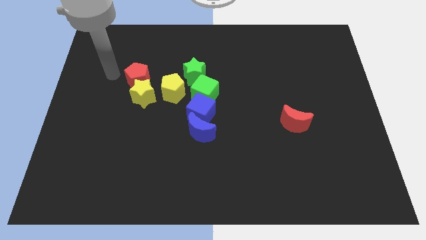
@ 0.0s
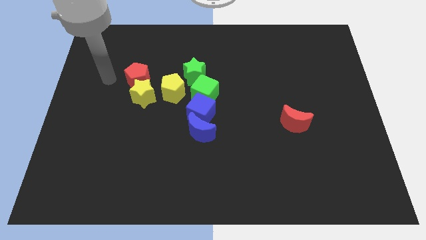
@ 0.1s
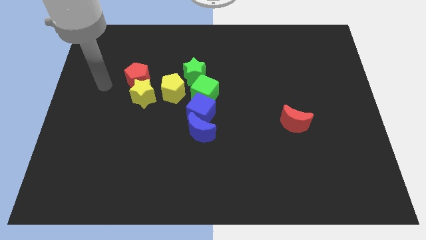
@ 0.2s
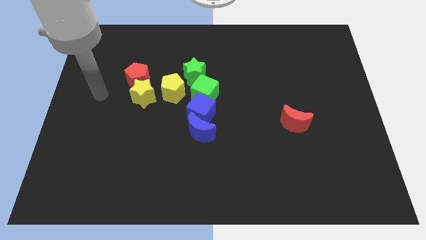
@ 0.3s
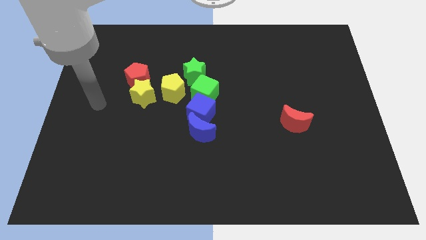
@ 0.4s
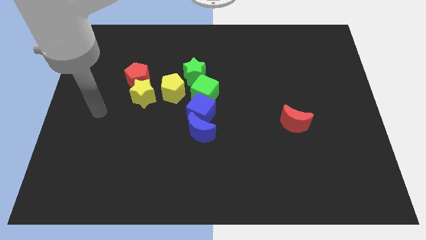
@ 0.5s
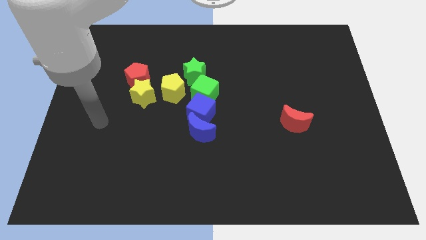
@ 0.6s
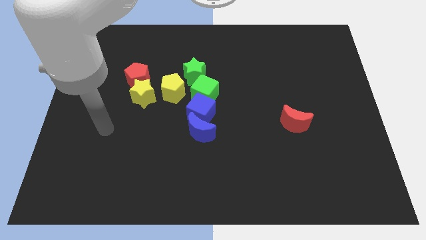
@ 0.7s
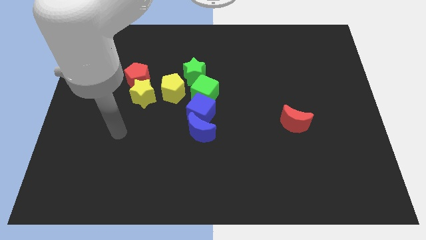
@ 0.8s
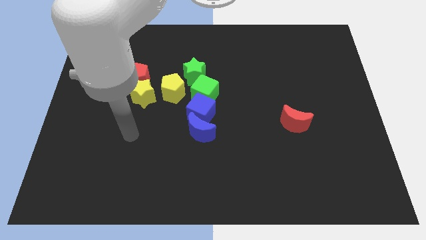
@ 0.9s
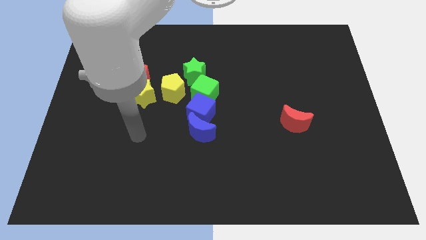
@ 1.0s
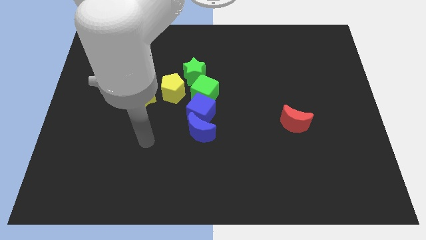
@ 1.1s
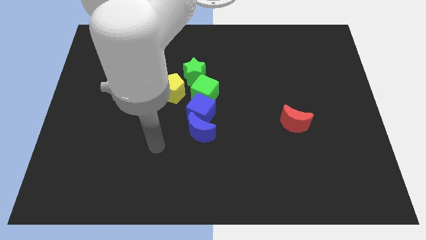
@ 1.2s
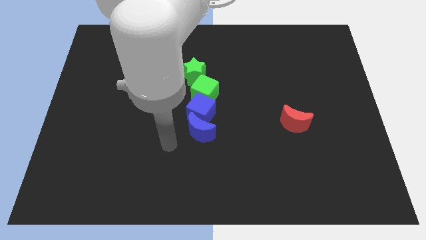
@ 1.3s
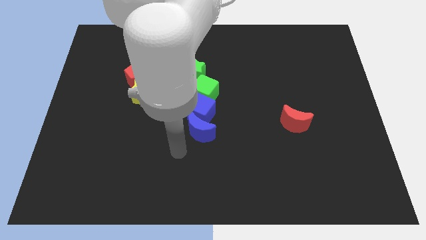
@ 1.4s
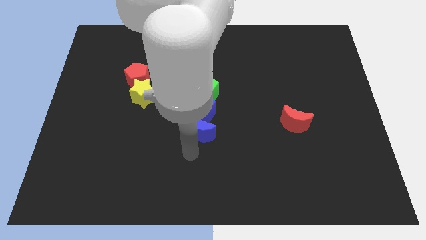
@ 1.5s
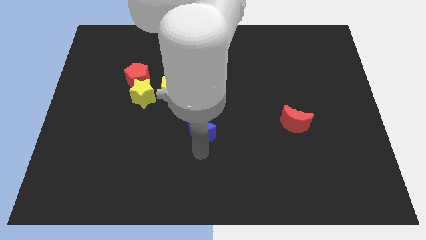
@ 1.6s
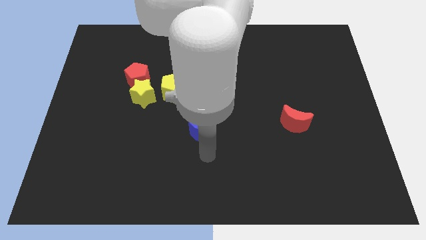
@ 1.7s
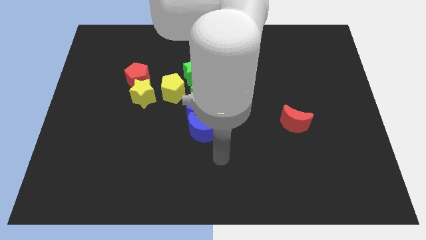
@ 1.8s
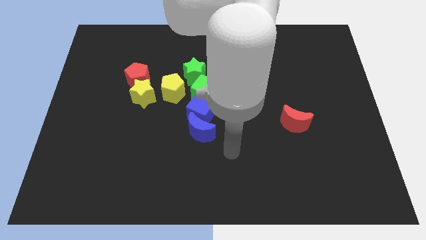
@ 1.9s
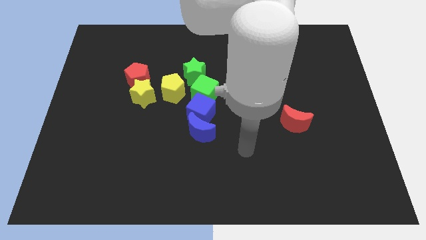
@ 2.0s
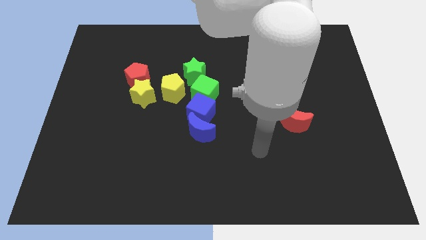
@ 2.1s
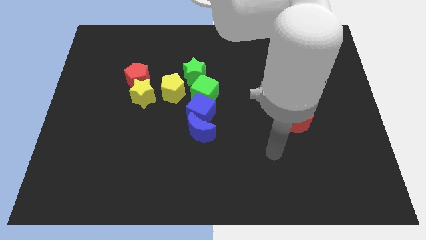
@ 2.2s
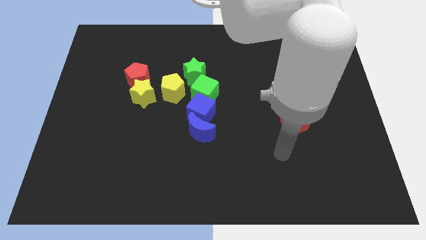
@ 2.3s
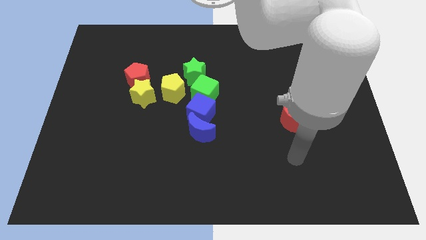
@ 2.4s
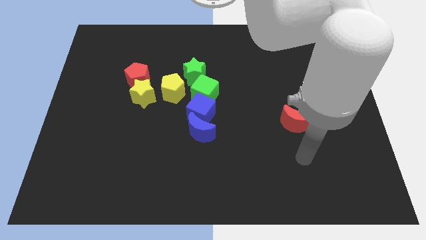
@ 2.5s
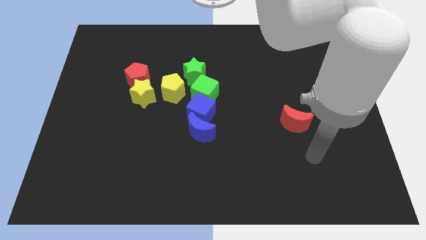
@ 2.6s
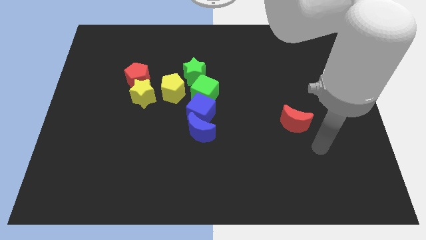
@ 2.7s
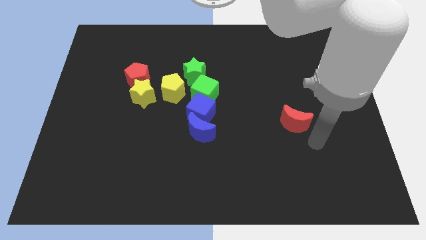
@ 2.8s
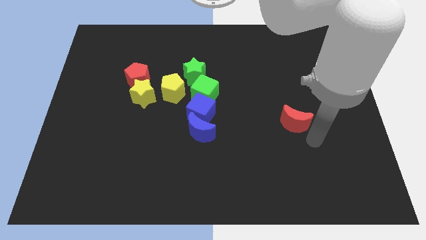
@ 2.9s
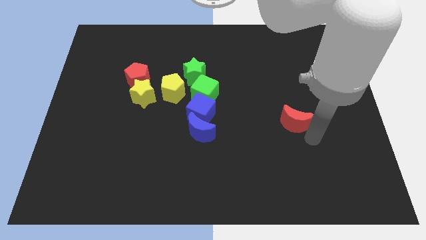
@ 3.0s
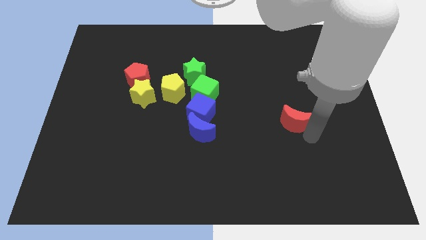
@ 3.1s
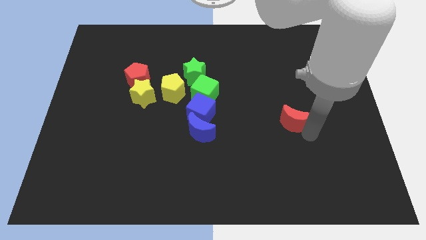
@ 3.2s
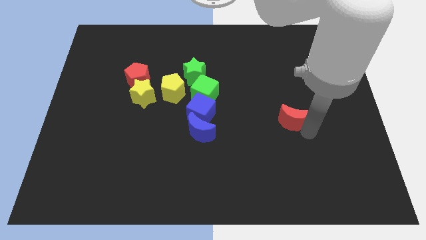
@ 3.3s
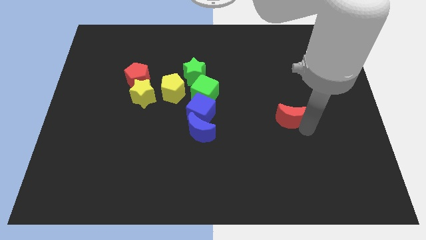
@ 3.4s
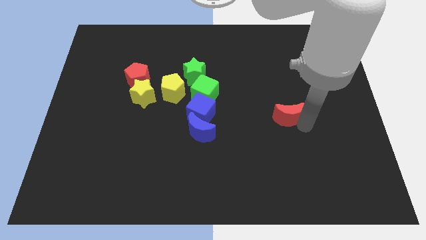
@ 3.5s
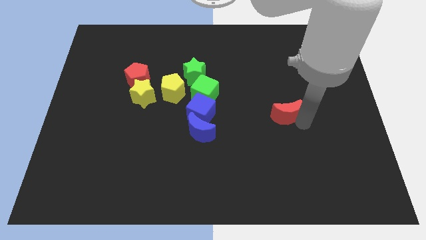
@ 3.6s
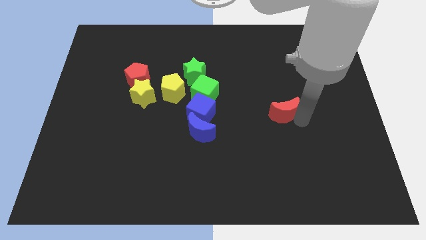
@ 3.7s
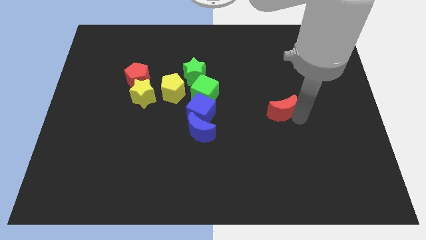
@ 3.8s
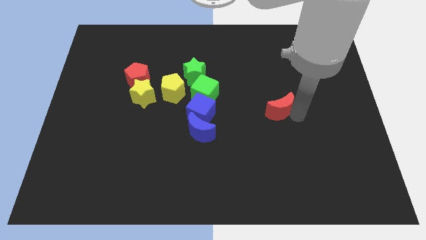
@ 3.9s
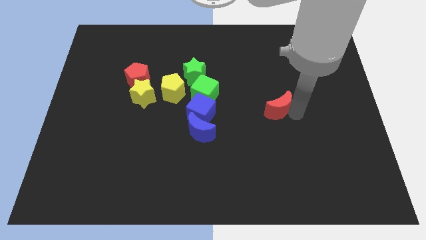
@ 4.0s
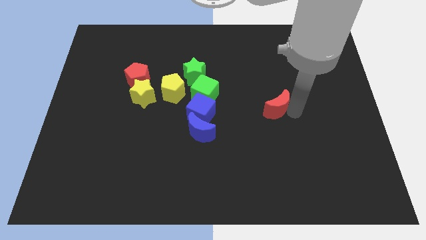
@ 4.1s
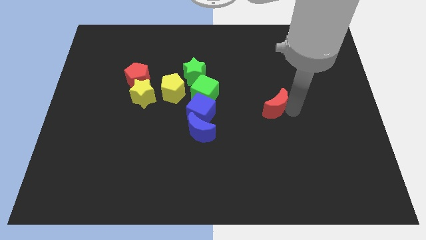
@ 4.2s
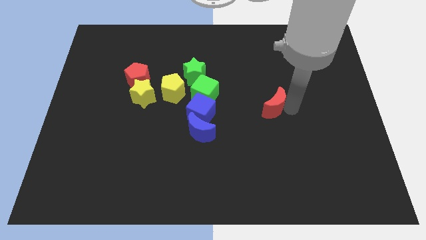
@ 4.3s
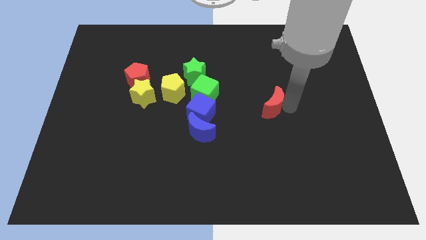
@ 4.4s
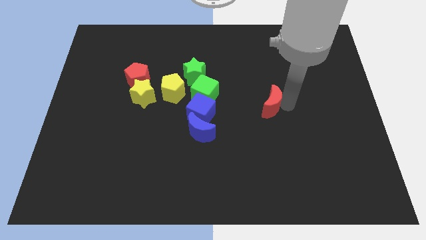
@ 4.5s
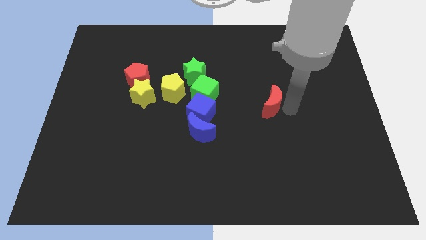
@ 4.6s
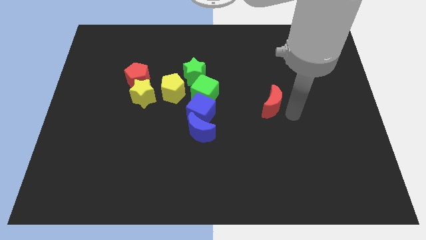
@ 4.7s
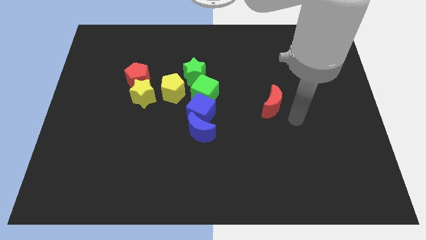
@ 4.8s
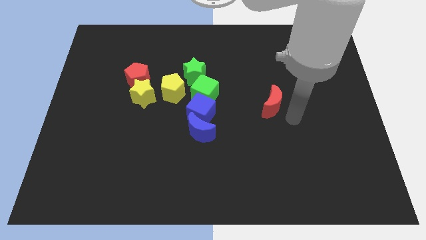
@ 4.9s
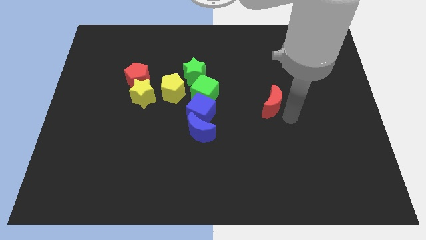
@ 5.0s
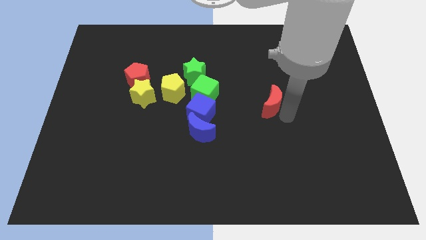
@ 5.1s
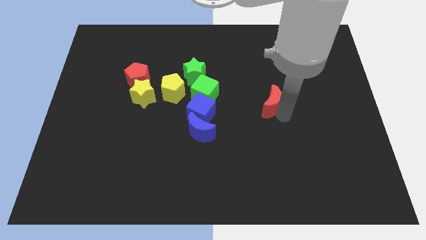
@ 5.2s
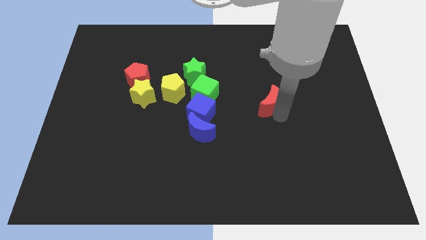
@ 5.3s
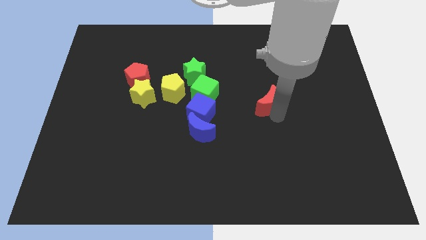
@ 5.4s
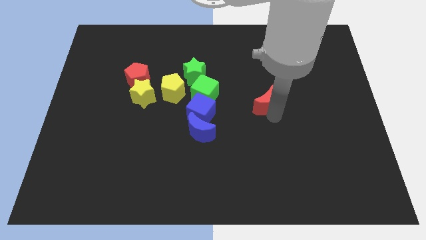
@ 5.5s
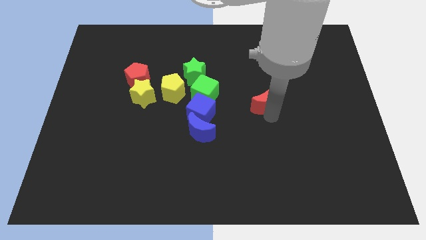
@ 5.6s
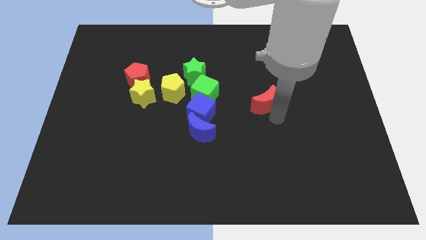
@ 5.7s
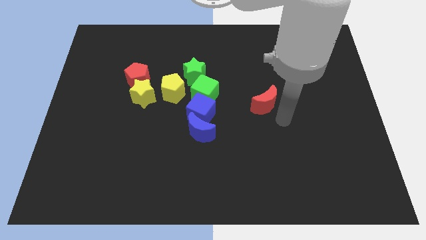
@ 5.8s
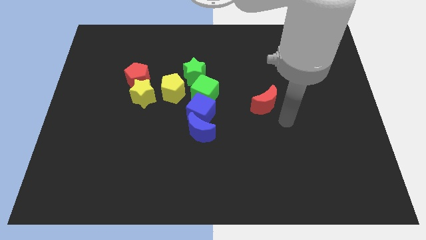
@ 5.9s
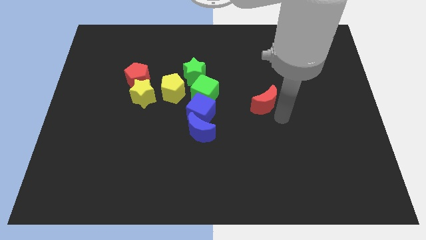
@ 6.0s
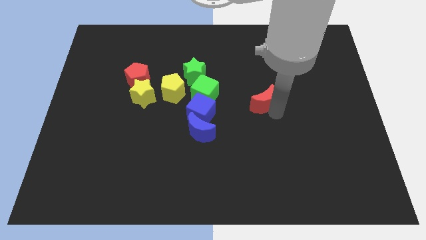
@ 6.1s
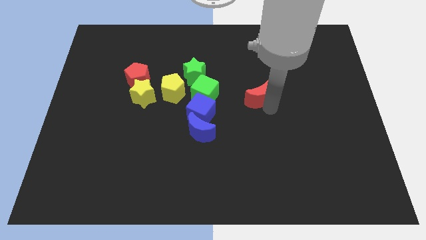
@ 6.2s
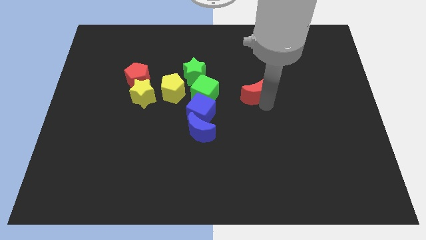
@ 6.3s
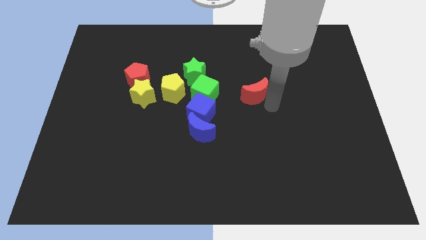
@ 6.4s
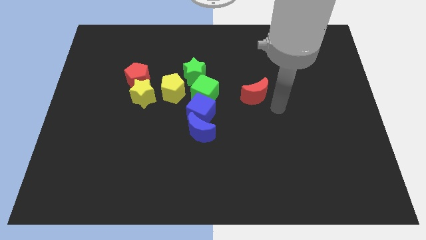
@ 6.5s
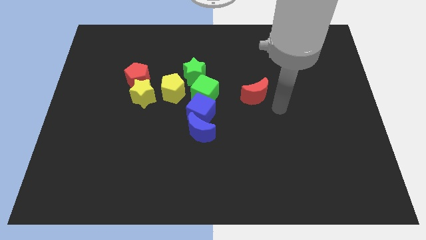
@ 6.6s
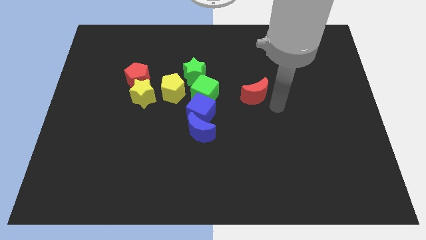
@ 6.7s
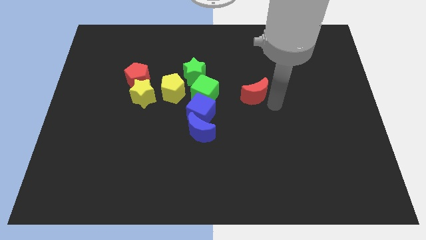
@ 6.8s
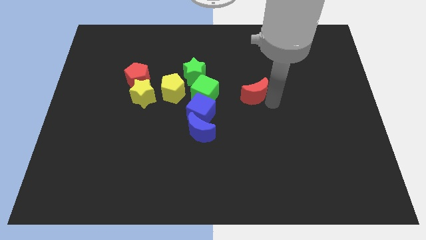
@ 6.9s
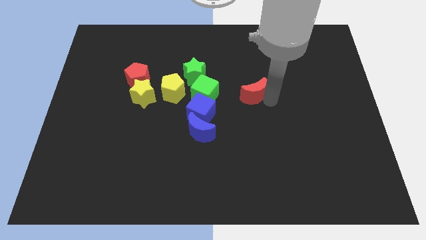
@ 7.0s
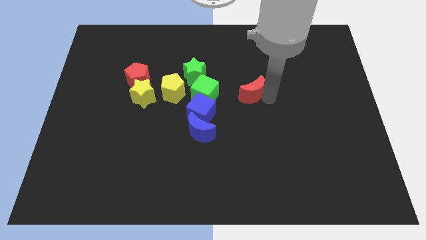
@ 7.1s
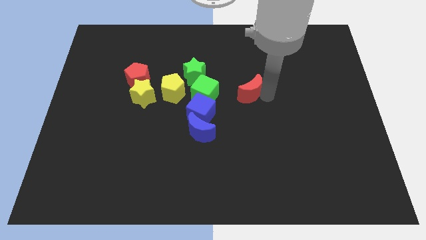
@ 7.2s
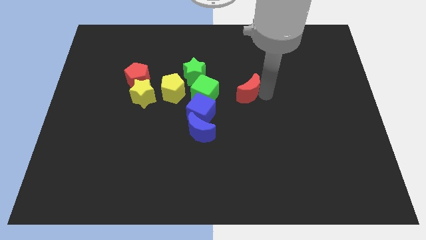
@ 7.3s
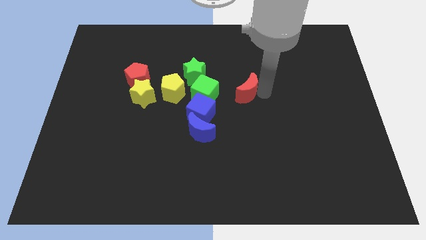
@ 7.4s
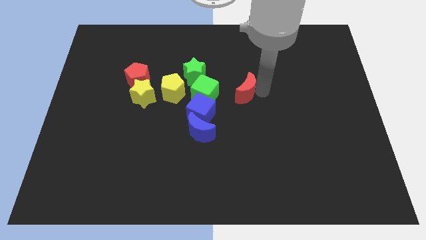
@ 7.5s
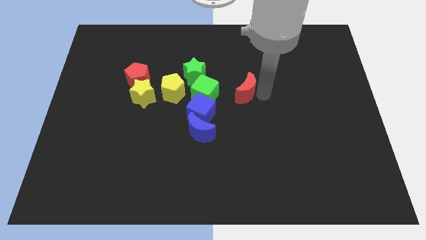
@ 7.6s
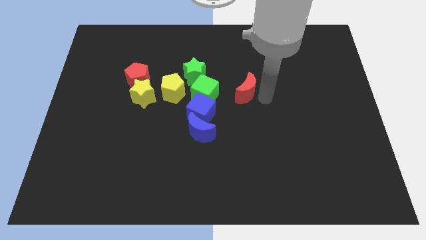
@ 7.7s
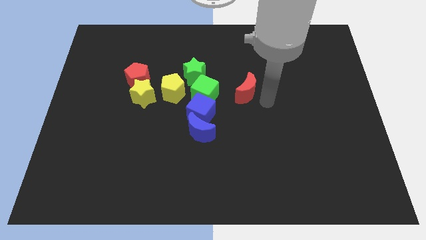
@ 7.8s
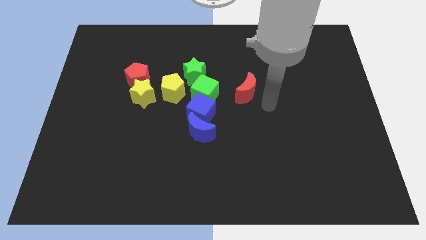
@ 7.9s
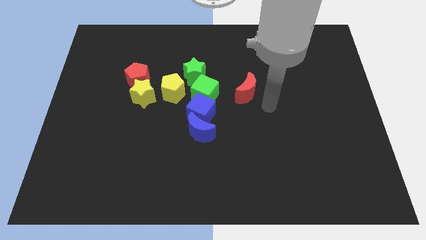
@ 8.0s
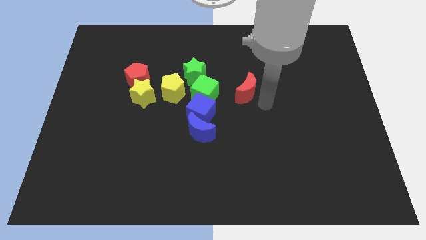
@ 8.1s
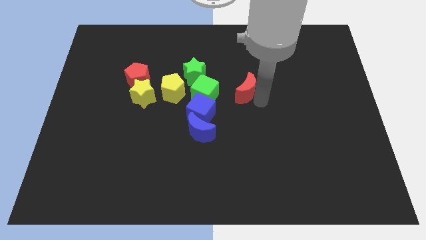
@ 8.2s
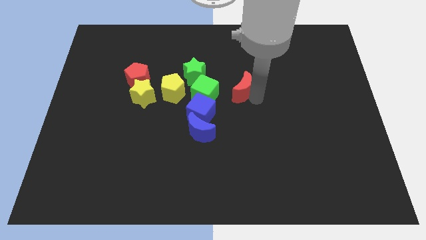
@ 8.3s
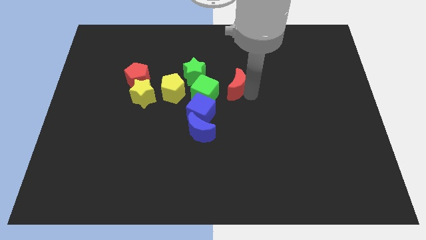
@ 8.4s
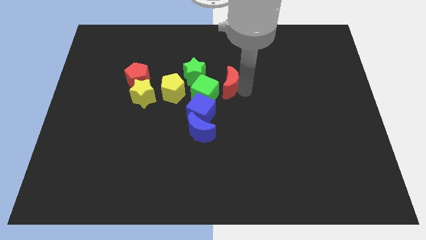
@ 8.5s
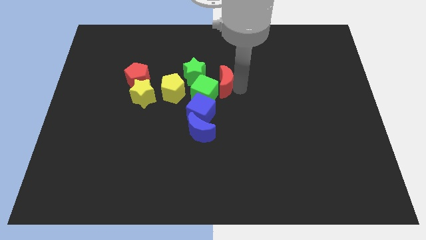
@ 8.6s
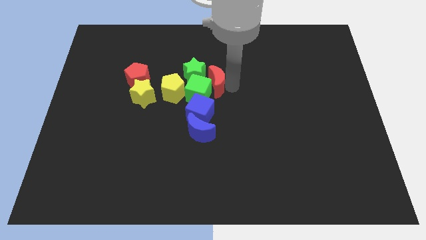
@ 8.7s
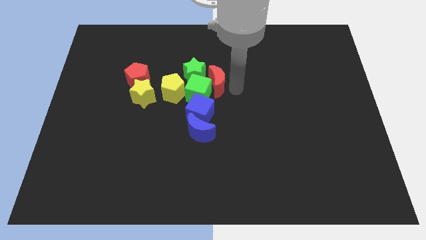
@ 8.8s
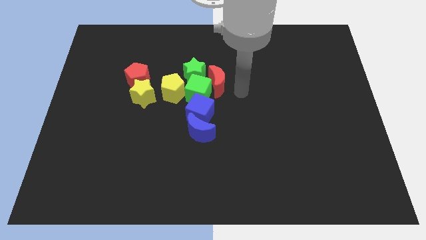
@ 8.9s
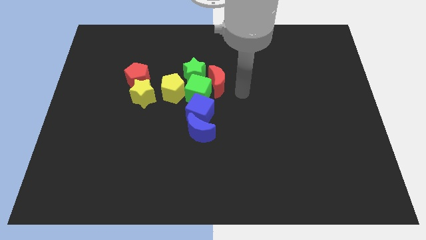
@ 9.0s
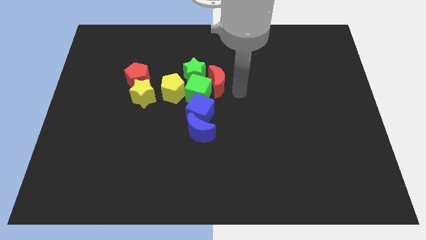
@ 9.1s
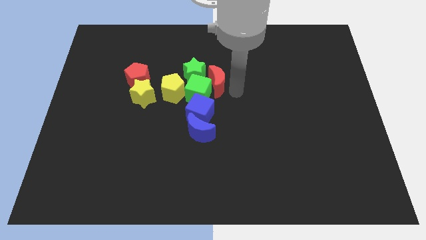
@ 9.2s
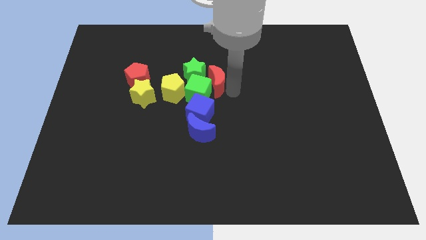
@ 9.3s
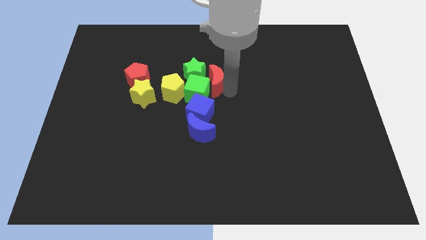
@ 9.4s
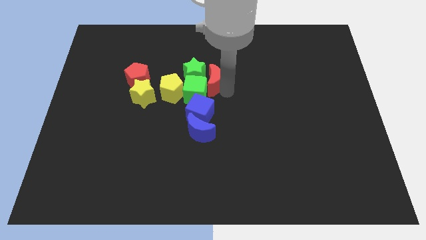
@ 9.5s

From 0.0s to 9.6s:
move the red moon close to the green star
